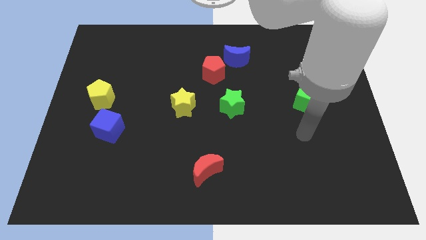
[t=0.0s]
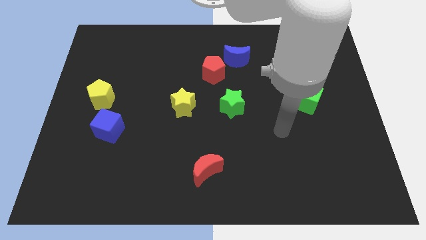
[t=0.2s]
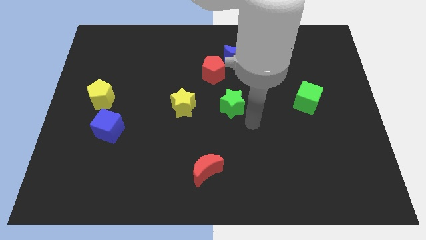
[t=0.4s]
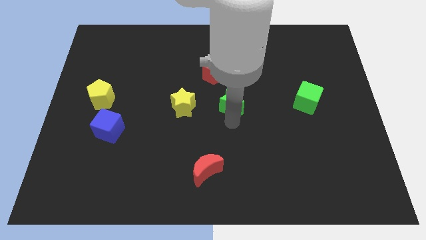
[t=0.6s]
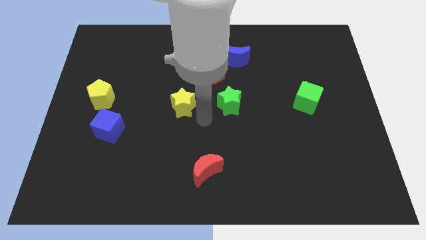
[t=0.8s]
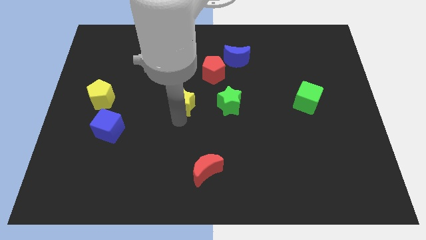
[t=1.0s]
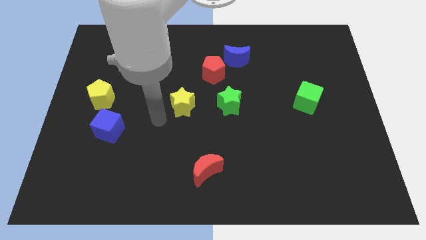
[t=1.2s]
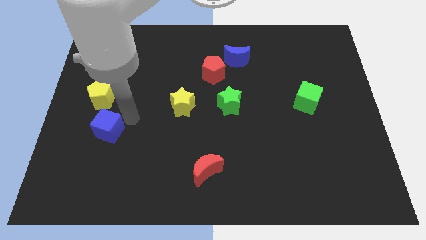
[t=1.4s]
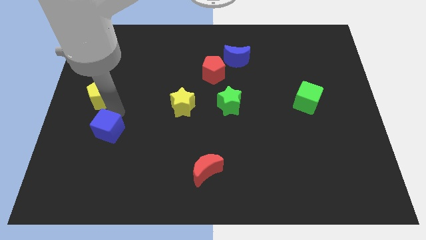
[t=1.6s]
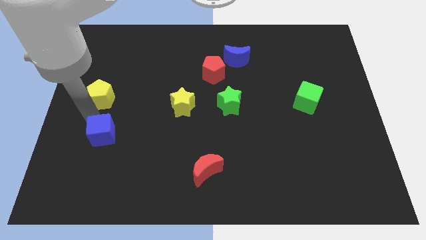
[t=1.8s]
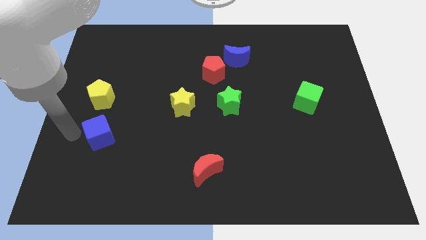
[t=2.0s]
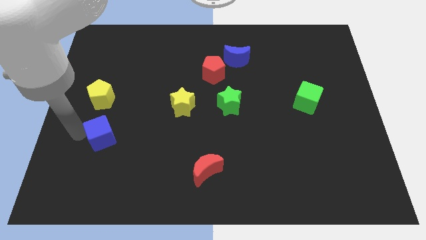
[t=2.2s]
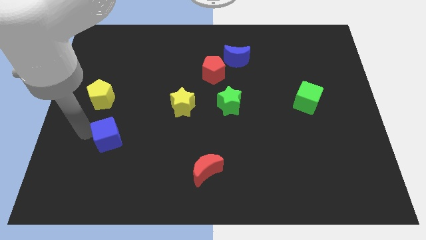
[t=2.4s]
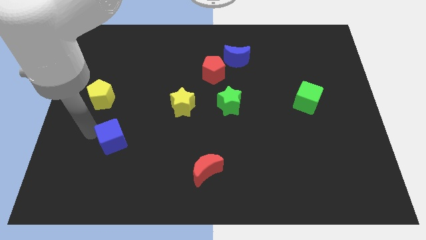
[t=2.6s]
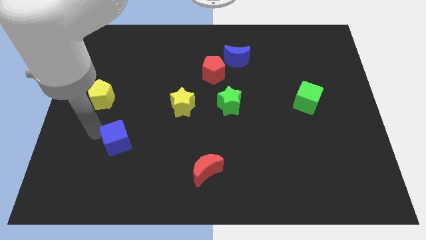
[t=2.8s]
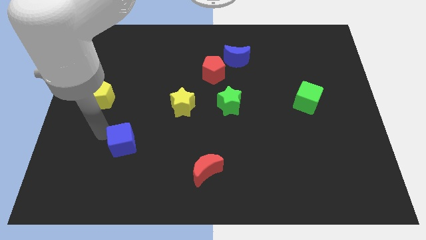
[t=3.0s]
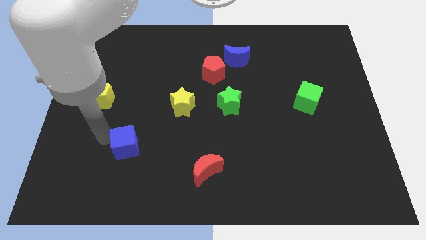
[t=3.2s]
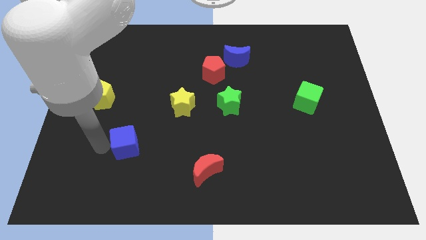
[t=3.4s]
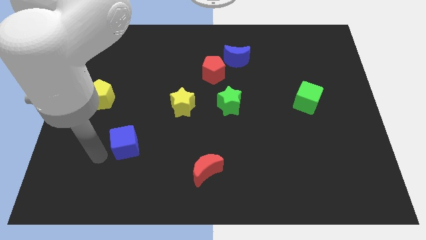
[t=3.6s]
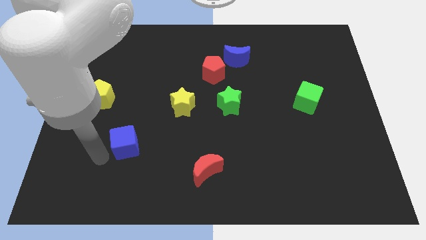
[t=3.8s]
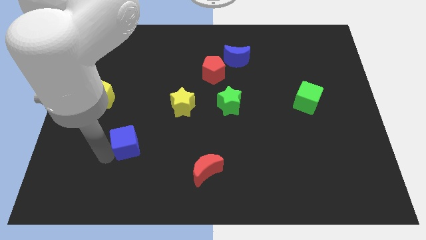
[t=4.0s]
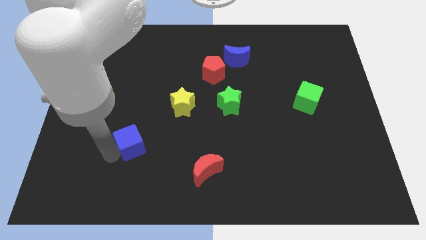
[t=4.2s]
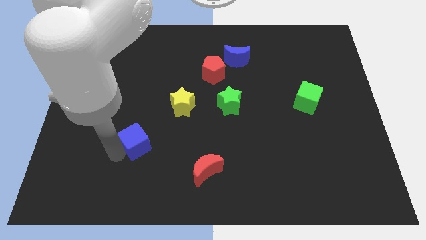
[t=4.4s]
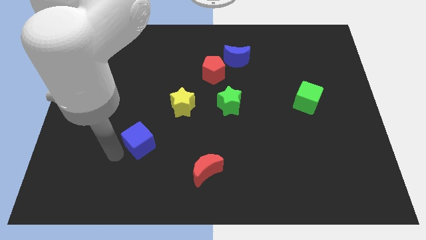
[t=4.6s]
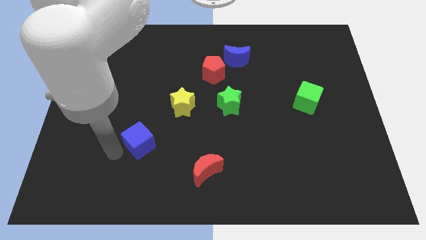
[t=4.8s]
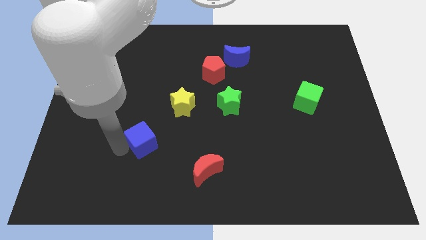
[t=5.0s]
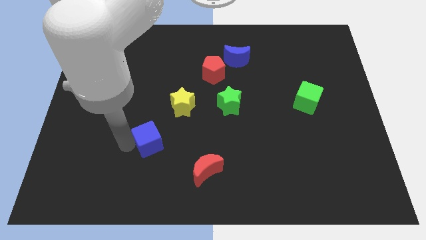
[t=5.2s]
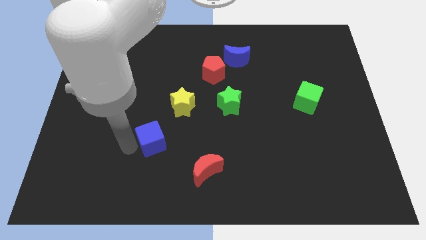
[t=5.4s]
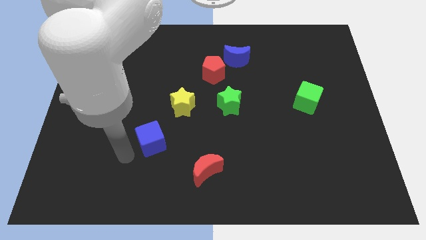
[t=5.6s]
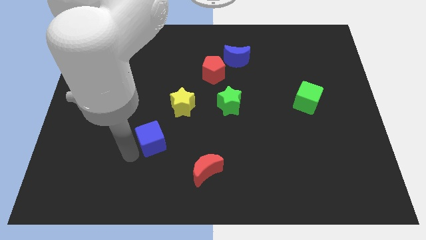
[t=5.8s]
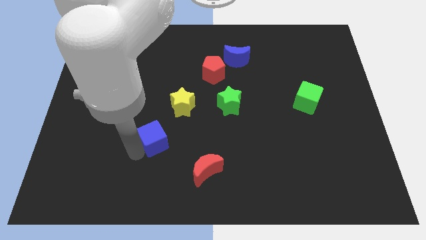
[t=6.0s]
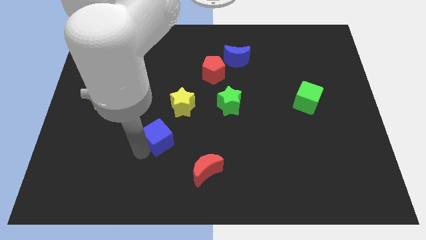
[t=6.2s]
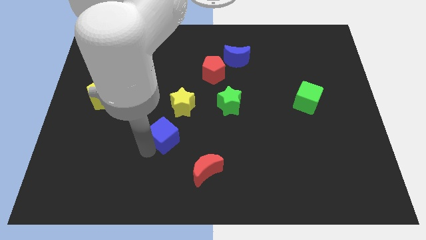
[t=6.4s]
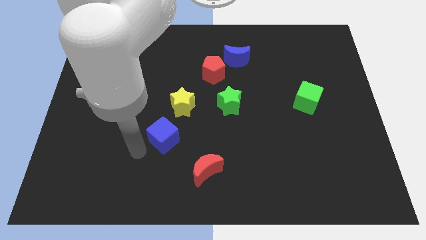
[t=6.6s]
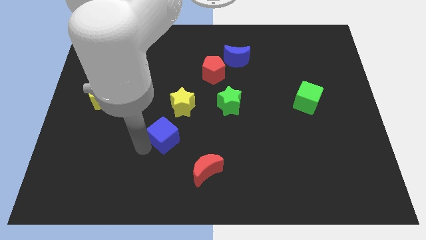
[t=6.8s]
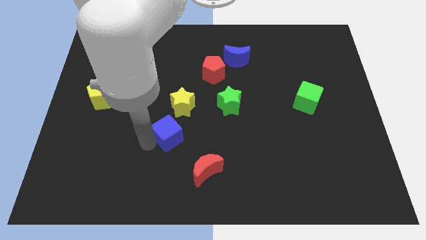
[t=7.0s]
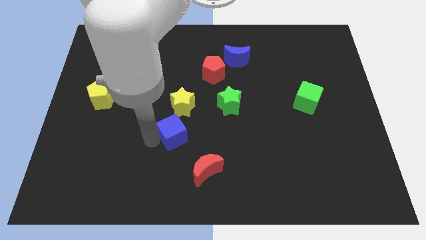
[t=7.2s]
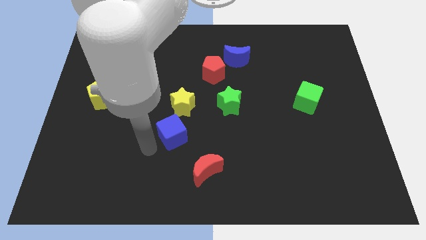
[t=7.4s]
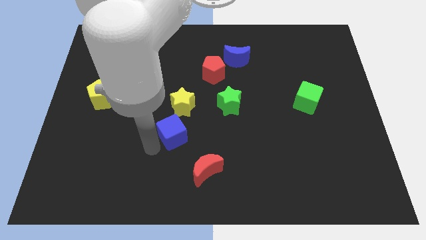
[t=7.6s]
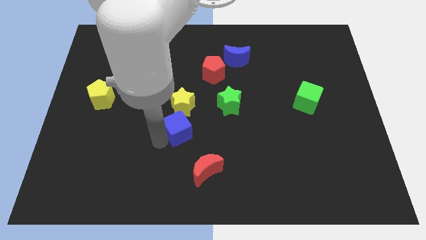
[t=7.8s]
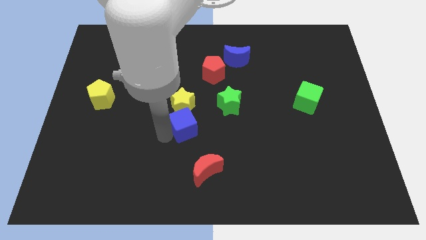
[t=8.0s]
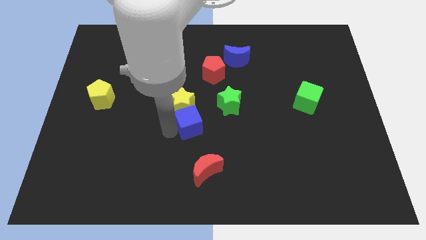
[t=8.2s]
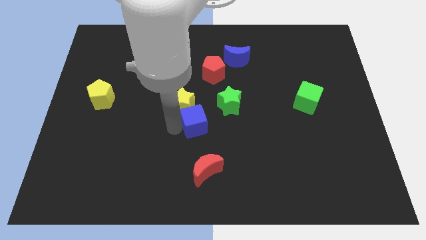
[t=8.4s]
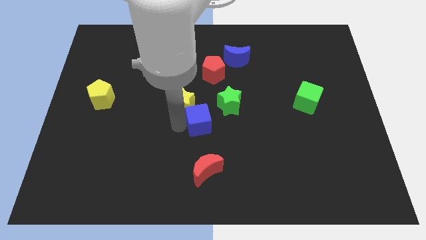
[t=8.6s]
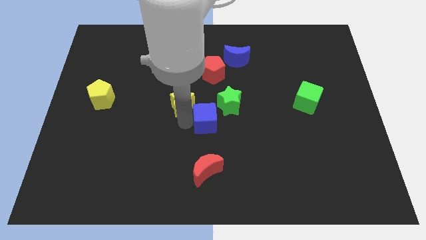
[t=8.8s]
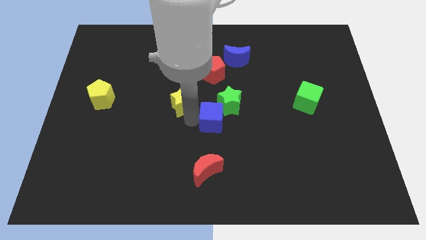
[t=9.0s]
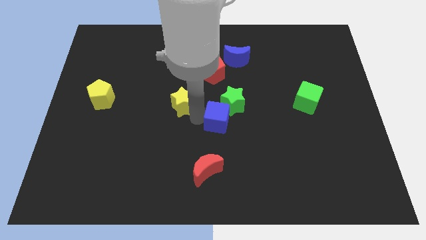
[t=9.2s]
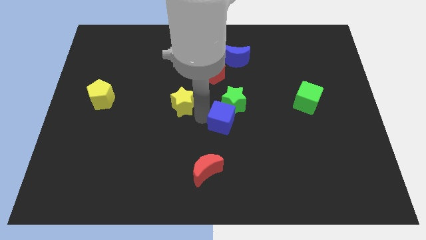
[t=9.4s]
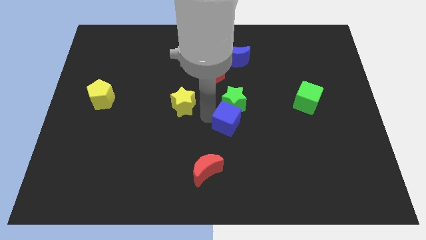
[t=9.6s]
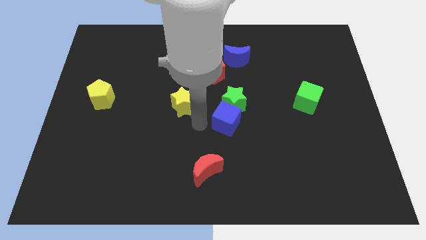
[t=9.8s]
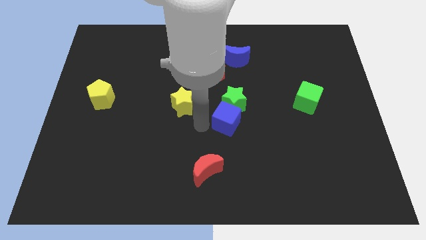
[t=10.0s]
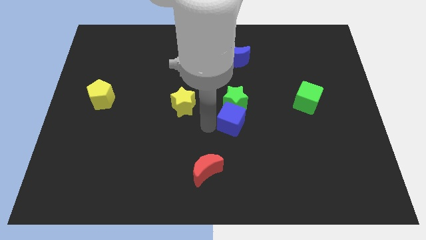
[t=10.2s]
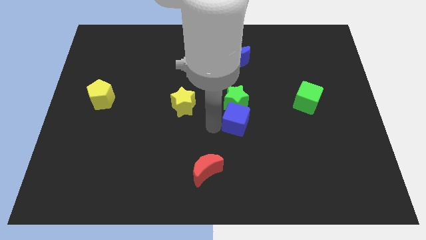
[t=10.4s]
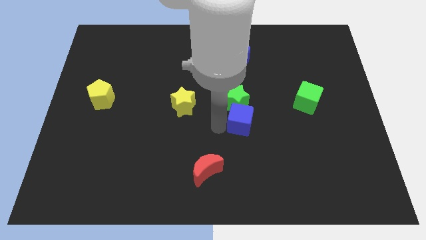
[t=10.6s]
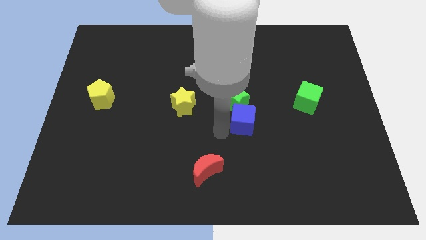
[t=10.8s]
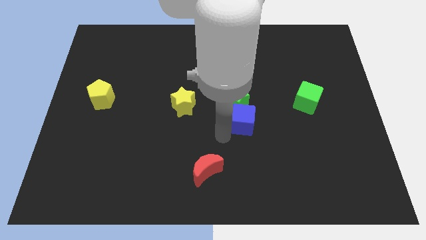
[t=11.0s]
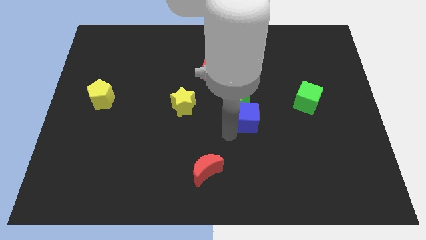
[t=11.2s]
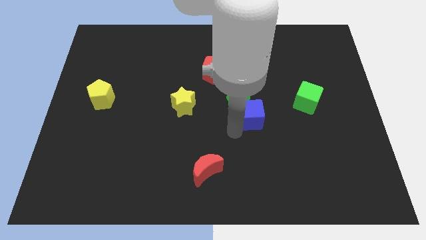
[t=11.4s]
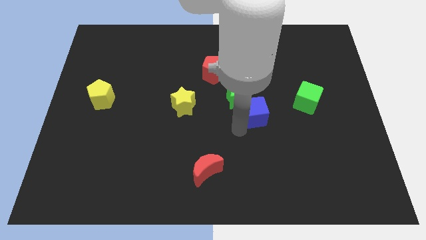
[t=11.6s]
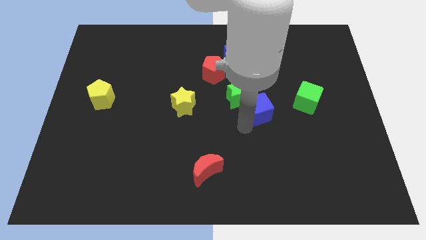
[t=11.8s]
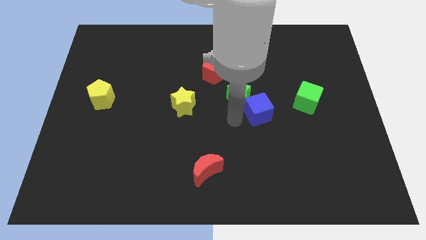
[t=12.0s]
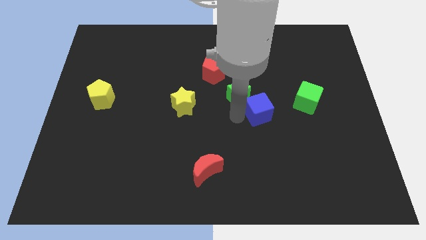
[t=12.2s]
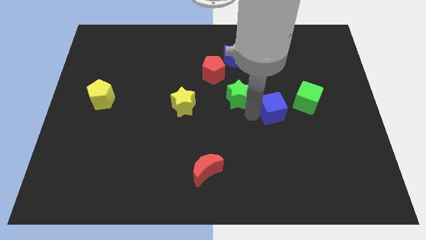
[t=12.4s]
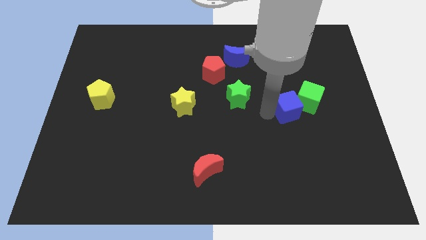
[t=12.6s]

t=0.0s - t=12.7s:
push the blue cube next to the green cube

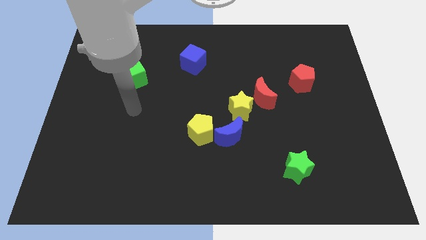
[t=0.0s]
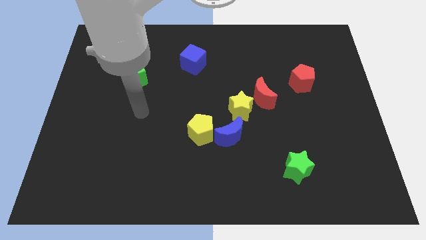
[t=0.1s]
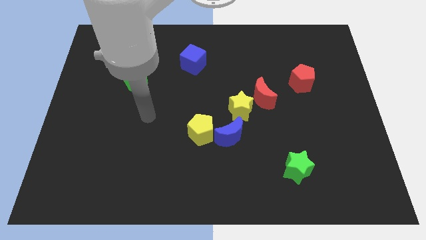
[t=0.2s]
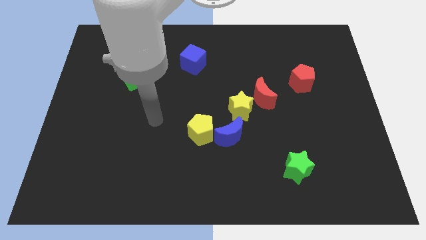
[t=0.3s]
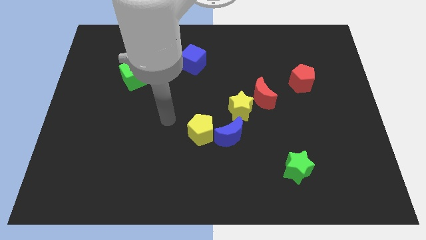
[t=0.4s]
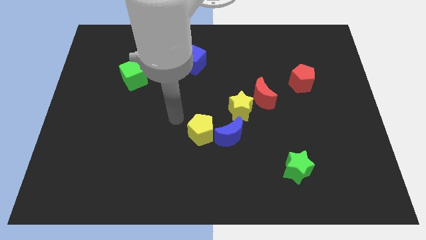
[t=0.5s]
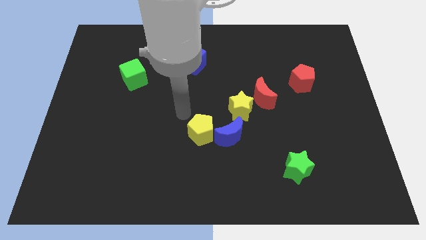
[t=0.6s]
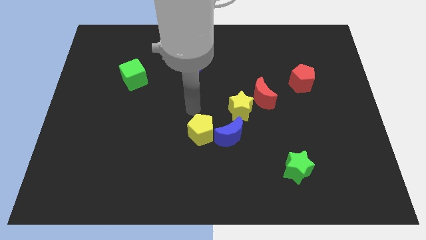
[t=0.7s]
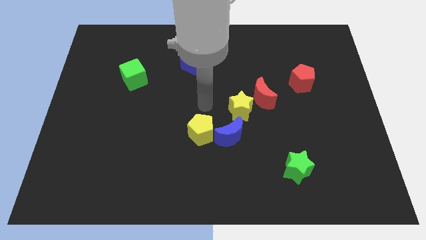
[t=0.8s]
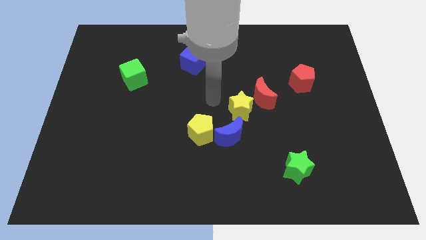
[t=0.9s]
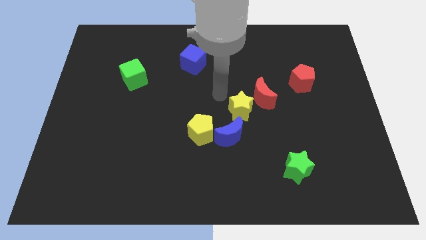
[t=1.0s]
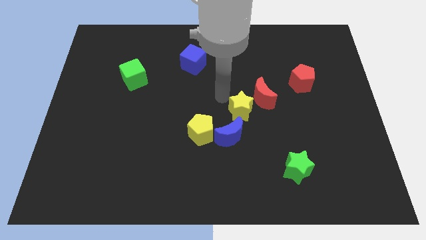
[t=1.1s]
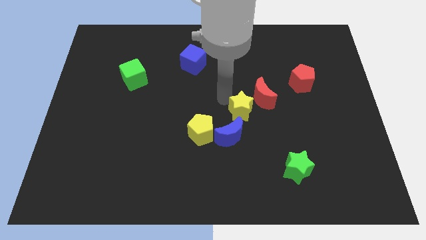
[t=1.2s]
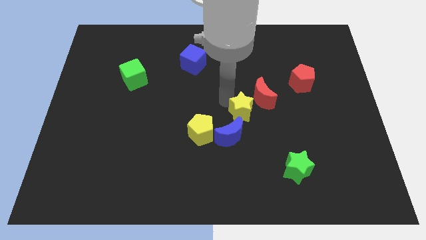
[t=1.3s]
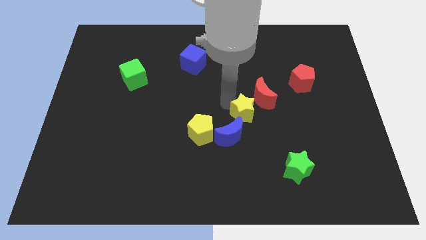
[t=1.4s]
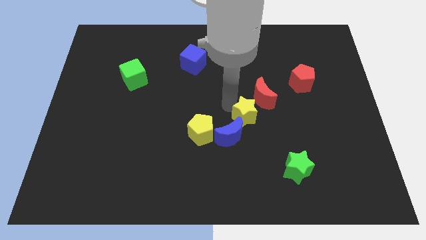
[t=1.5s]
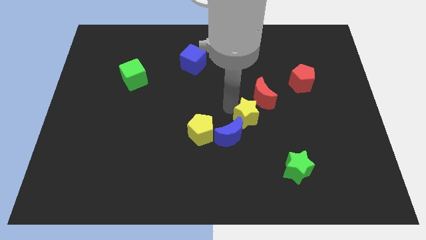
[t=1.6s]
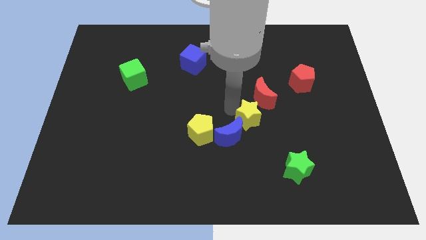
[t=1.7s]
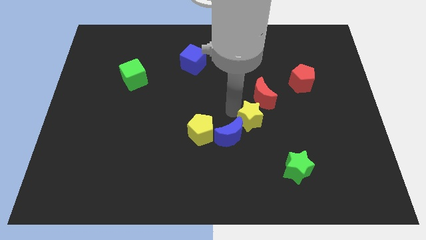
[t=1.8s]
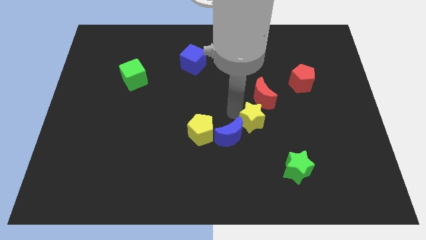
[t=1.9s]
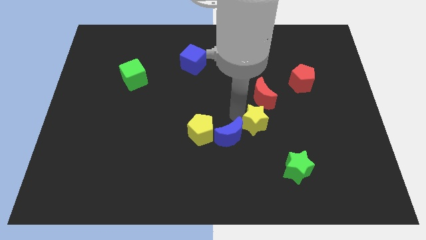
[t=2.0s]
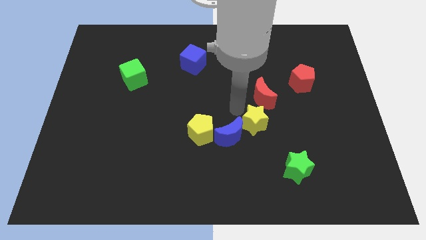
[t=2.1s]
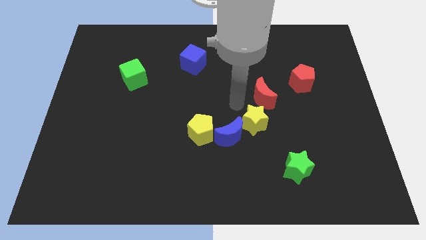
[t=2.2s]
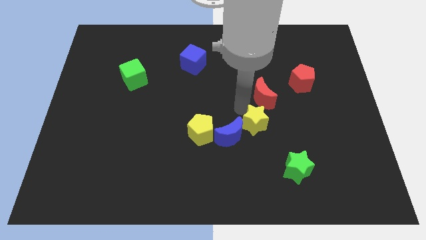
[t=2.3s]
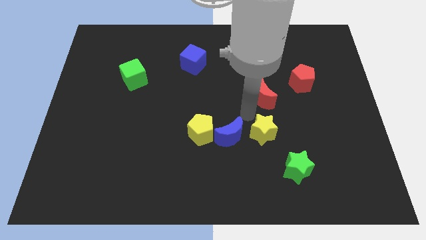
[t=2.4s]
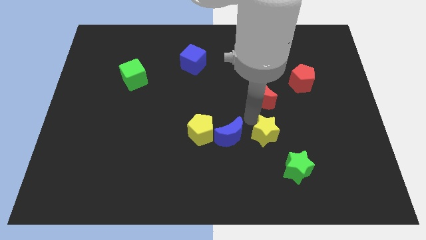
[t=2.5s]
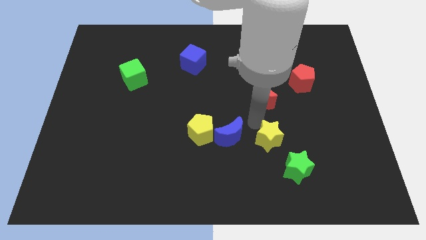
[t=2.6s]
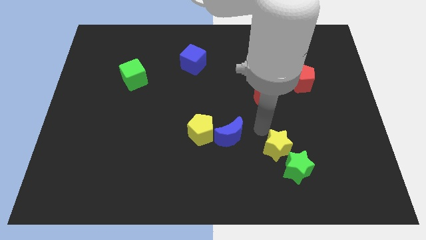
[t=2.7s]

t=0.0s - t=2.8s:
move the yellow star close to the green star
